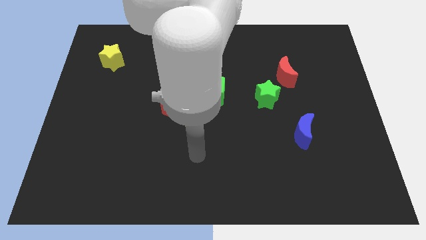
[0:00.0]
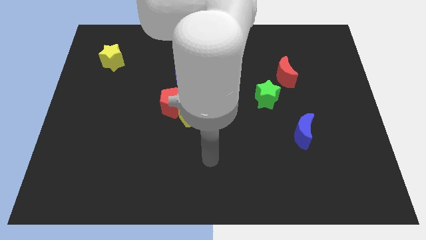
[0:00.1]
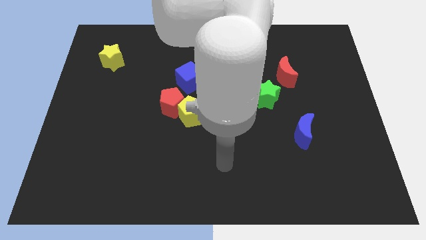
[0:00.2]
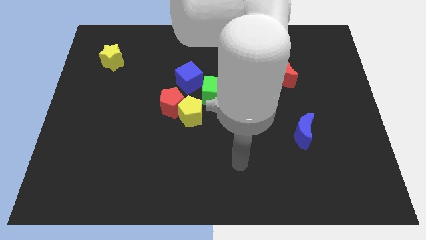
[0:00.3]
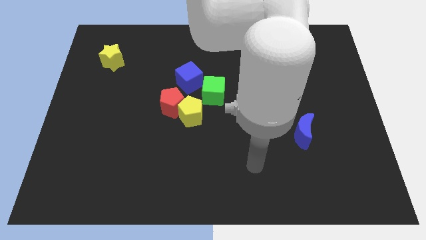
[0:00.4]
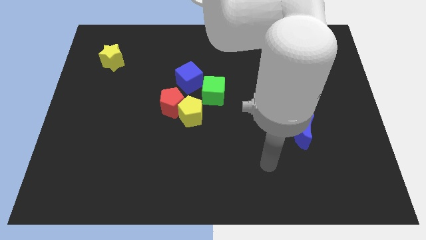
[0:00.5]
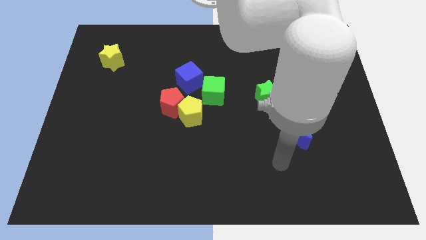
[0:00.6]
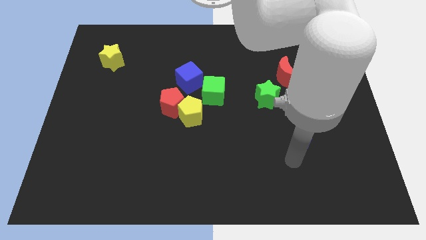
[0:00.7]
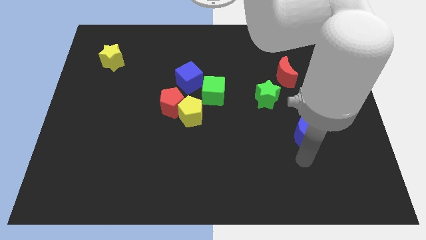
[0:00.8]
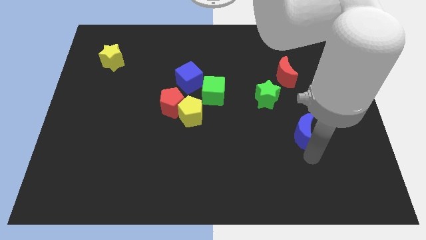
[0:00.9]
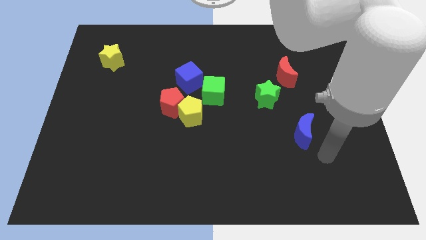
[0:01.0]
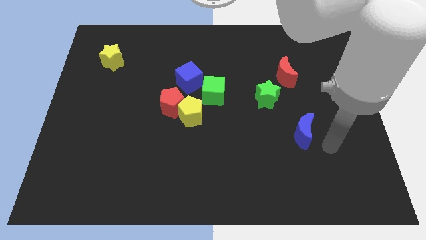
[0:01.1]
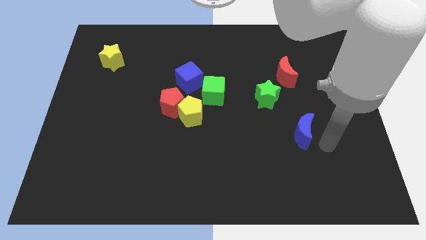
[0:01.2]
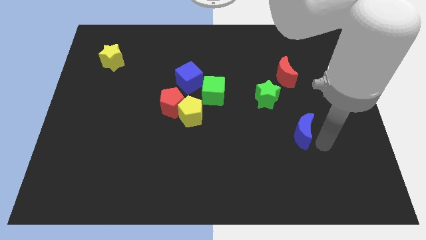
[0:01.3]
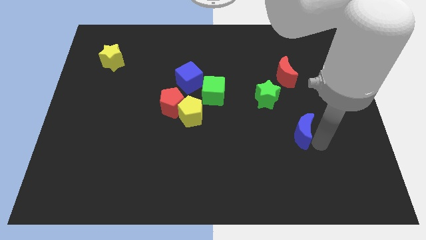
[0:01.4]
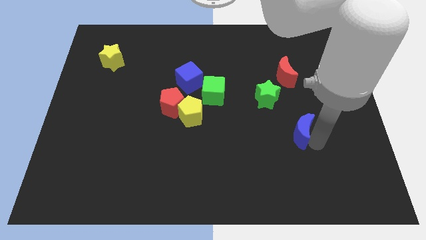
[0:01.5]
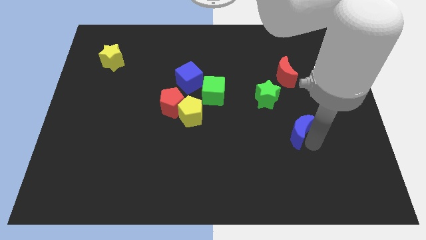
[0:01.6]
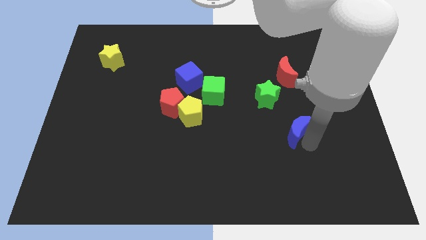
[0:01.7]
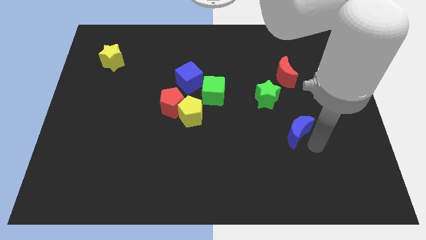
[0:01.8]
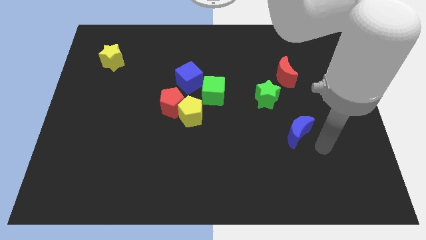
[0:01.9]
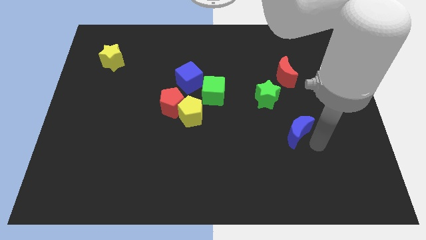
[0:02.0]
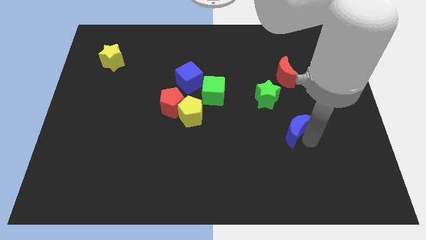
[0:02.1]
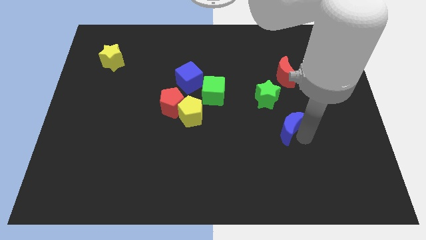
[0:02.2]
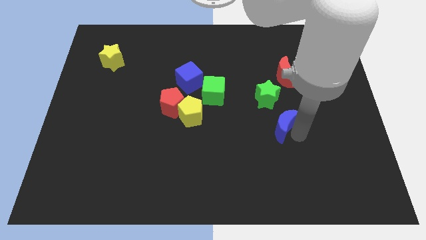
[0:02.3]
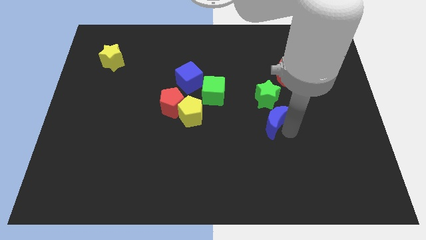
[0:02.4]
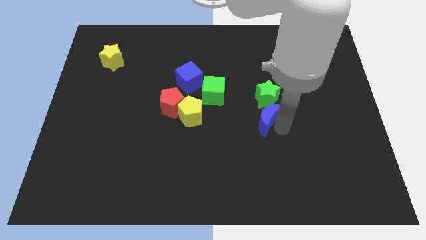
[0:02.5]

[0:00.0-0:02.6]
slightly push the blue moon up and then left

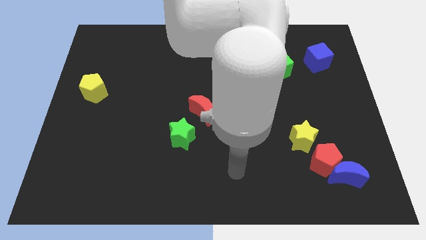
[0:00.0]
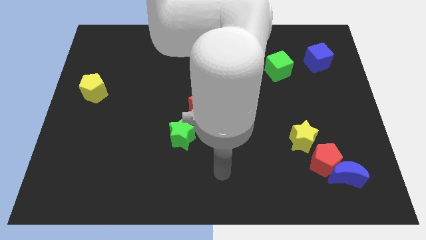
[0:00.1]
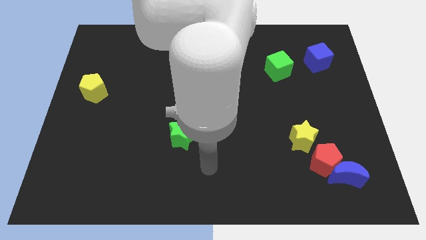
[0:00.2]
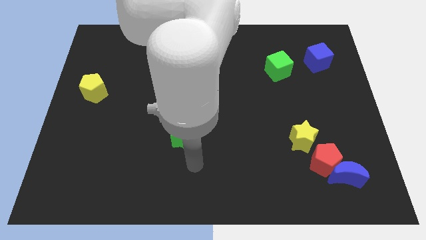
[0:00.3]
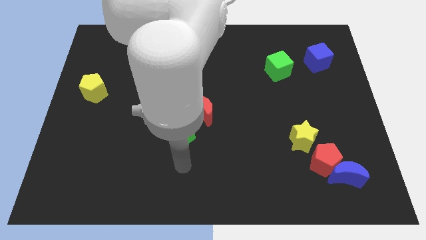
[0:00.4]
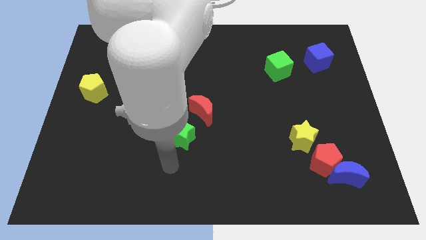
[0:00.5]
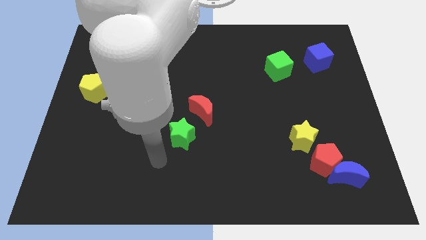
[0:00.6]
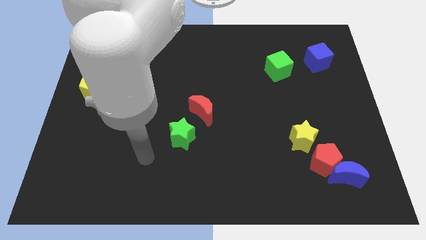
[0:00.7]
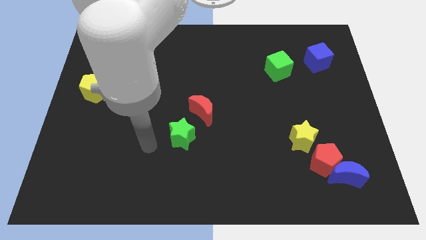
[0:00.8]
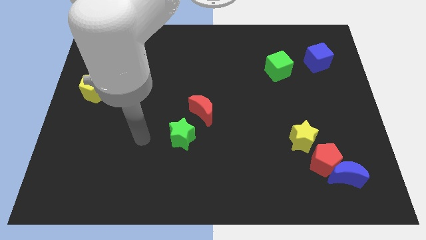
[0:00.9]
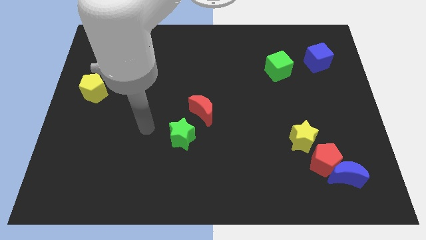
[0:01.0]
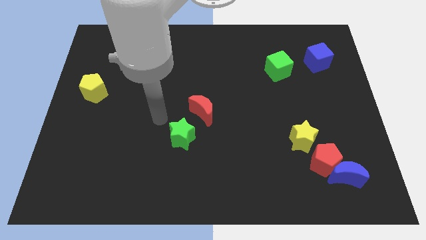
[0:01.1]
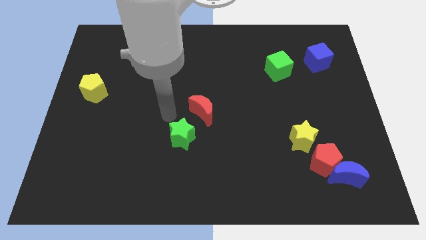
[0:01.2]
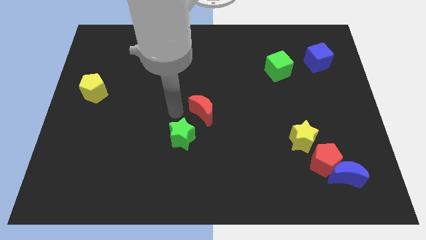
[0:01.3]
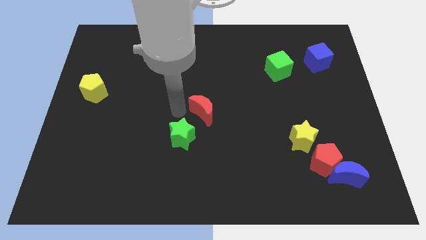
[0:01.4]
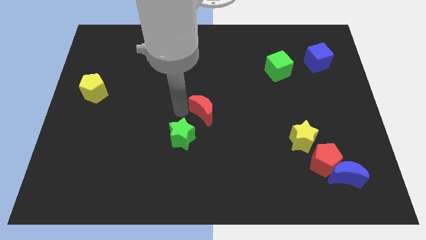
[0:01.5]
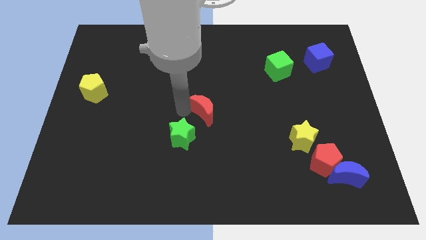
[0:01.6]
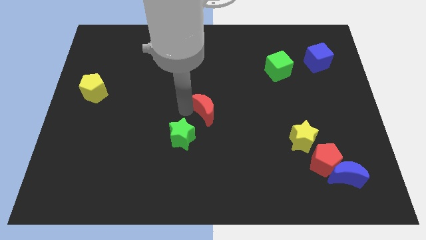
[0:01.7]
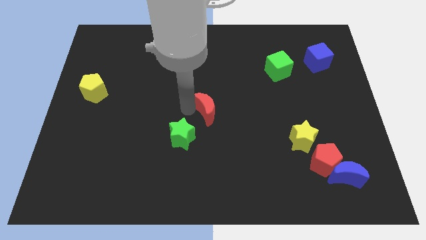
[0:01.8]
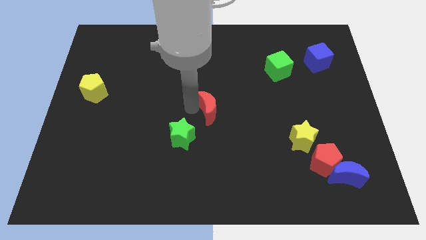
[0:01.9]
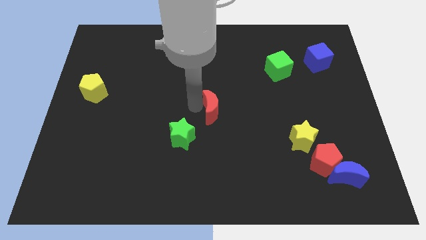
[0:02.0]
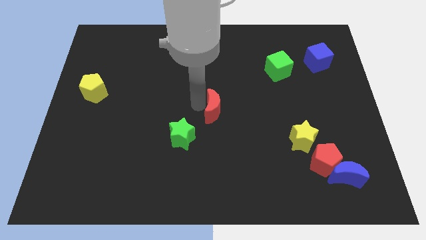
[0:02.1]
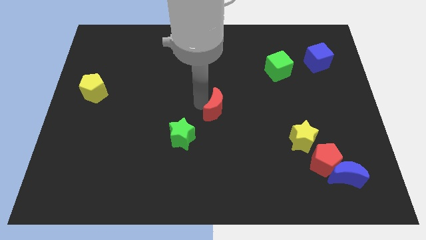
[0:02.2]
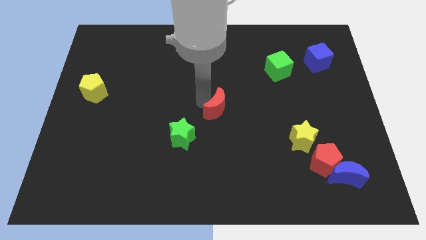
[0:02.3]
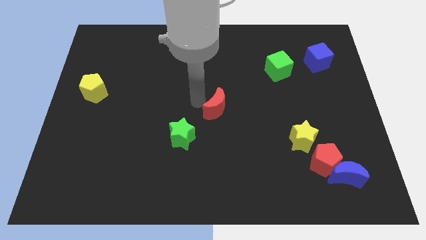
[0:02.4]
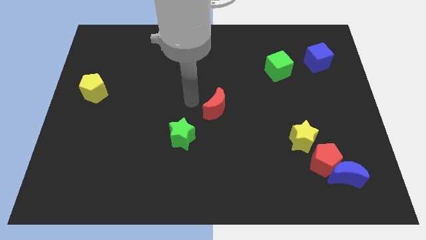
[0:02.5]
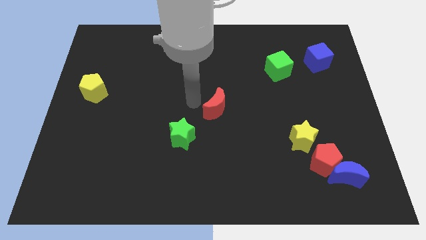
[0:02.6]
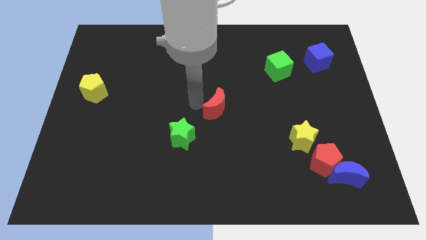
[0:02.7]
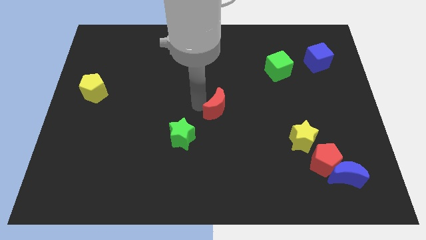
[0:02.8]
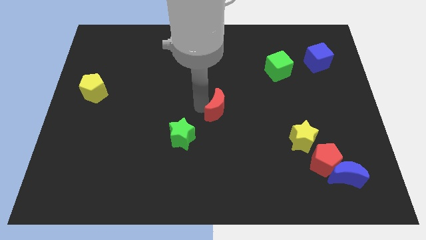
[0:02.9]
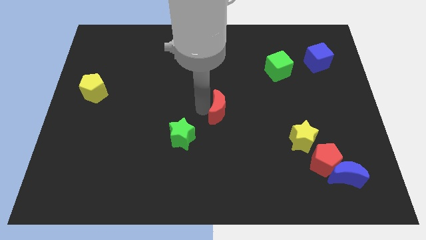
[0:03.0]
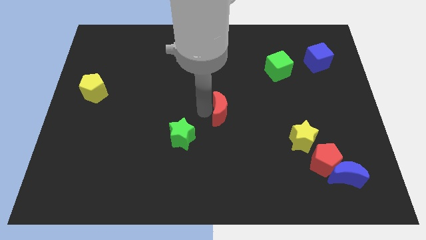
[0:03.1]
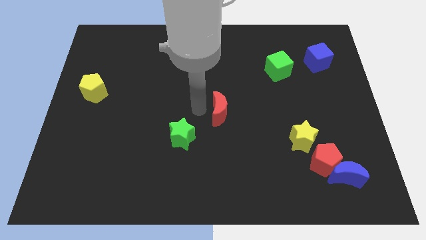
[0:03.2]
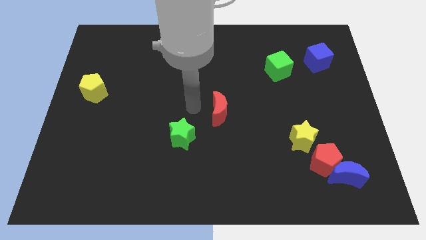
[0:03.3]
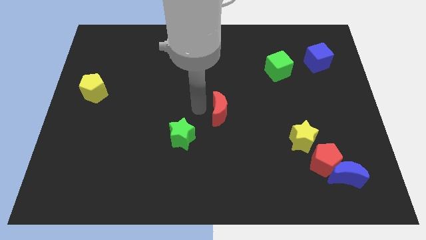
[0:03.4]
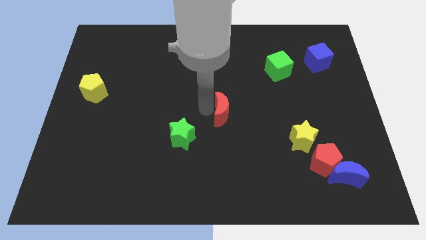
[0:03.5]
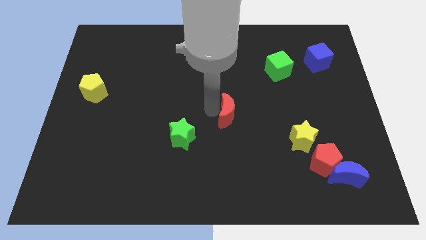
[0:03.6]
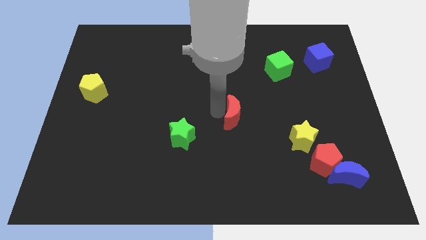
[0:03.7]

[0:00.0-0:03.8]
slightly move the red moon right

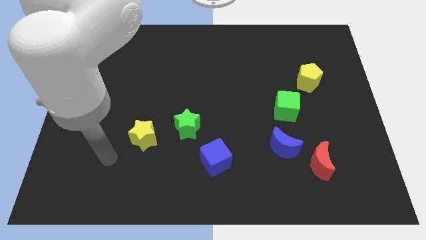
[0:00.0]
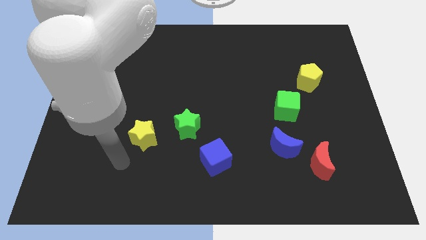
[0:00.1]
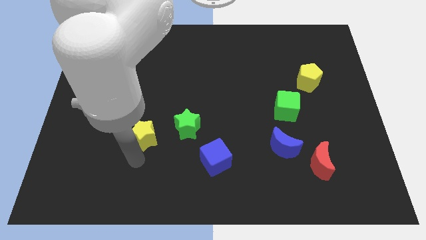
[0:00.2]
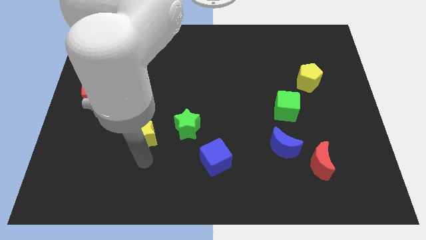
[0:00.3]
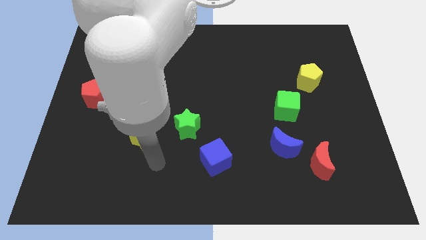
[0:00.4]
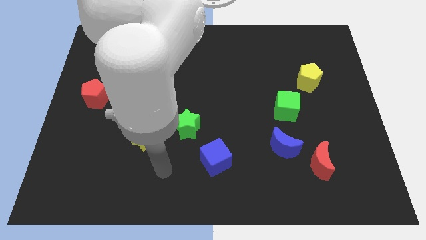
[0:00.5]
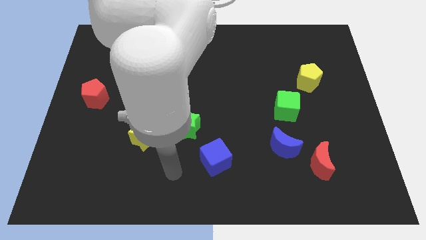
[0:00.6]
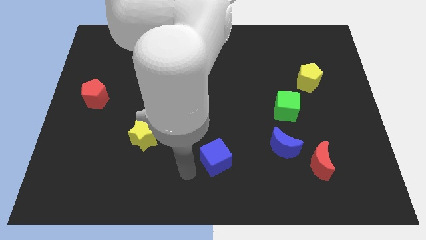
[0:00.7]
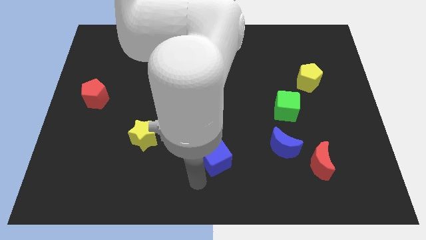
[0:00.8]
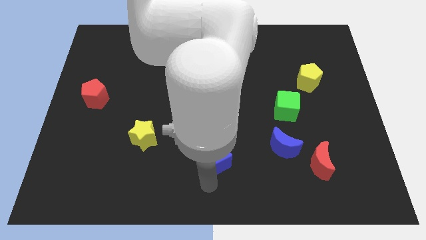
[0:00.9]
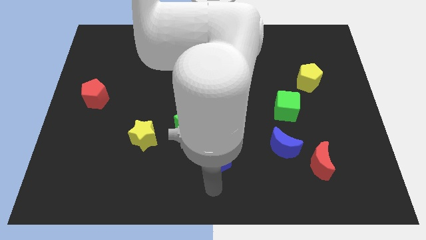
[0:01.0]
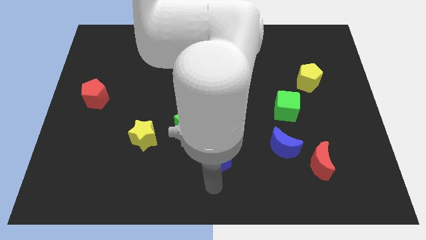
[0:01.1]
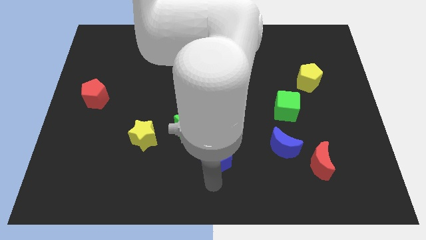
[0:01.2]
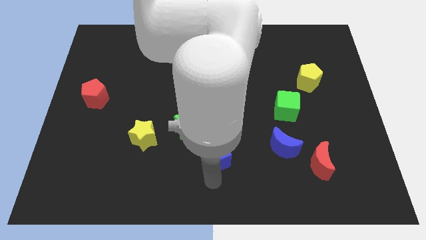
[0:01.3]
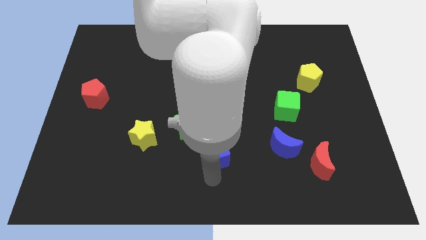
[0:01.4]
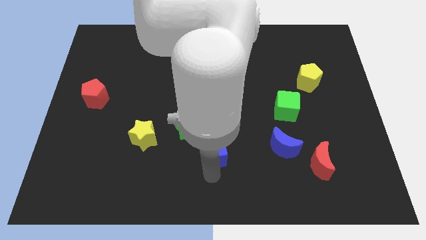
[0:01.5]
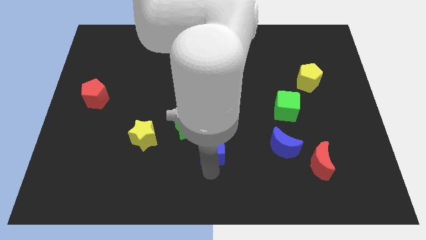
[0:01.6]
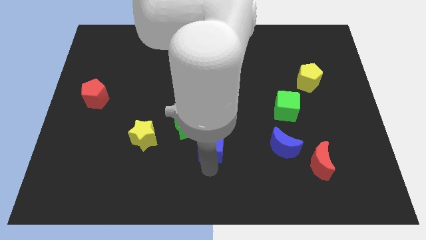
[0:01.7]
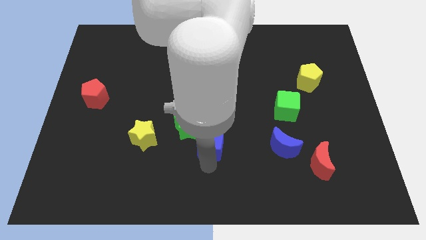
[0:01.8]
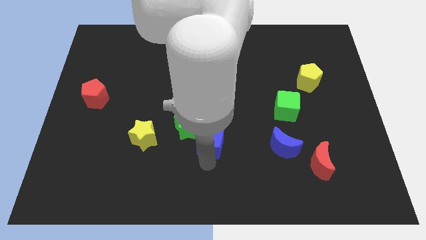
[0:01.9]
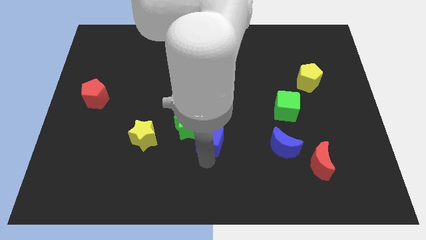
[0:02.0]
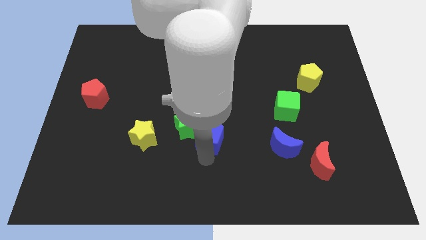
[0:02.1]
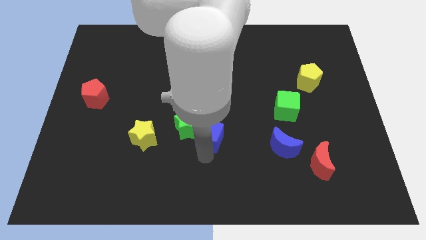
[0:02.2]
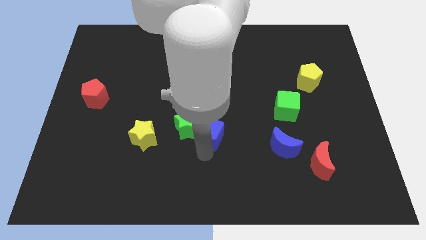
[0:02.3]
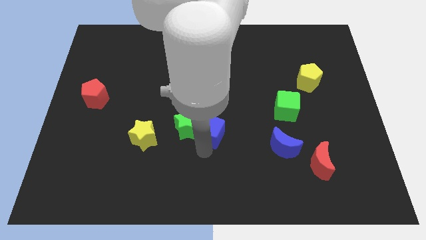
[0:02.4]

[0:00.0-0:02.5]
slightly move the blue cube upwards
